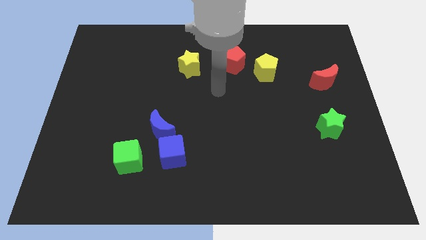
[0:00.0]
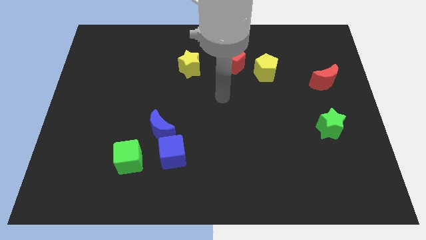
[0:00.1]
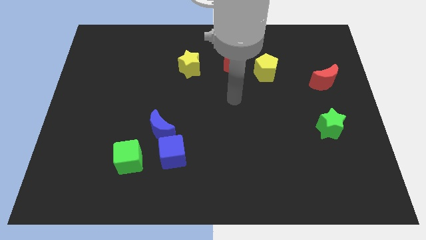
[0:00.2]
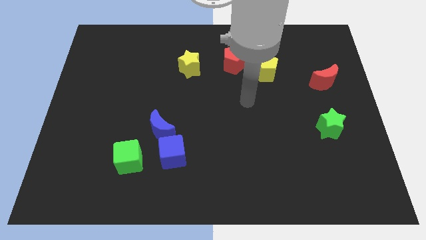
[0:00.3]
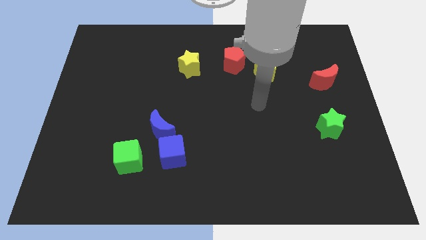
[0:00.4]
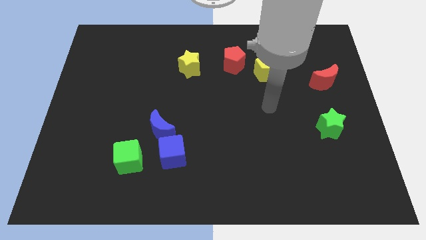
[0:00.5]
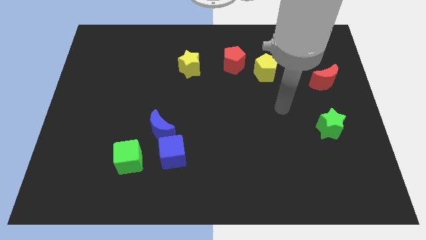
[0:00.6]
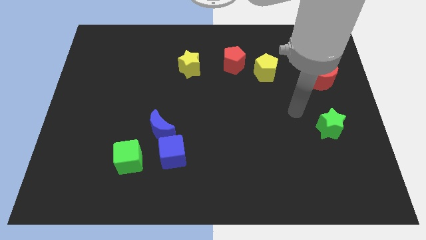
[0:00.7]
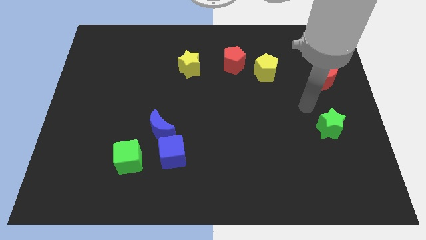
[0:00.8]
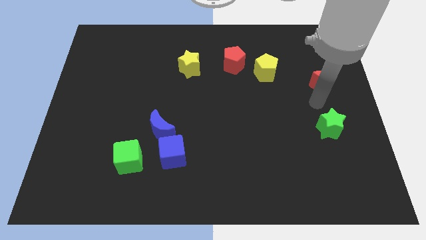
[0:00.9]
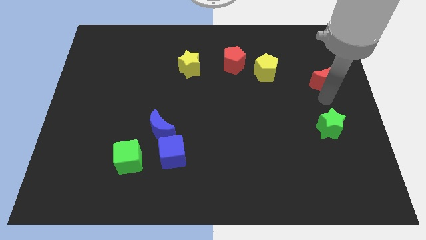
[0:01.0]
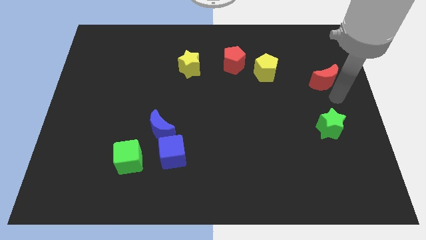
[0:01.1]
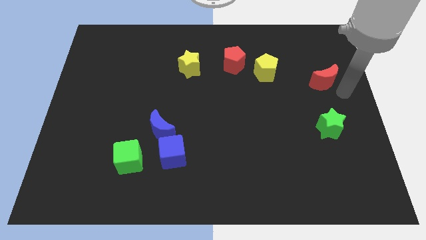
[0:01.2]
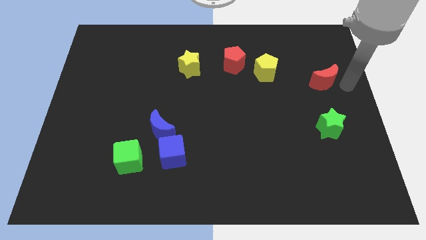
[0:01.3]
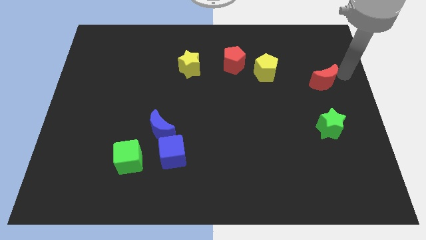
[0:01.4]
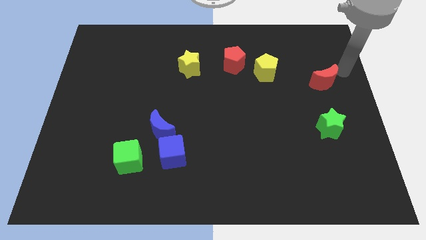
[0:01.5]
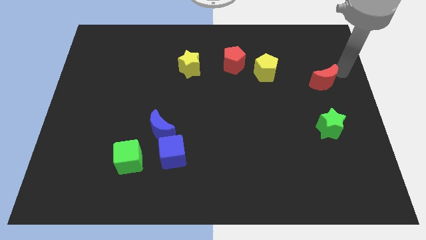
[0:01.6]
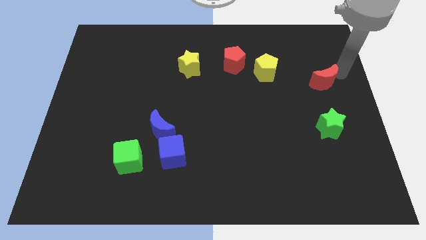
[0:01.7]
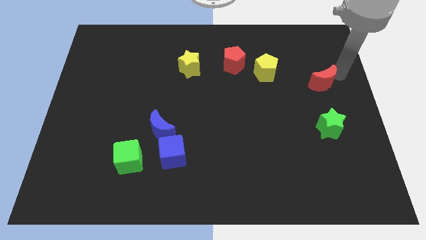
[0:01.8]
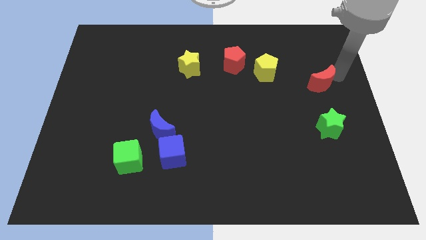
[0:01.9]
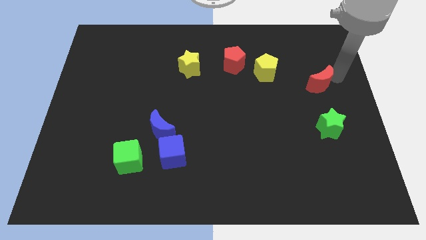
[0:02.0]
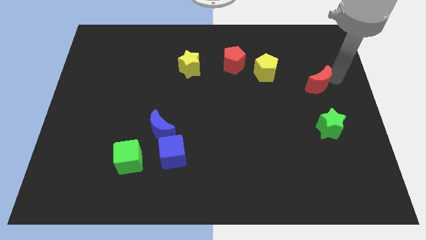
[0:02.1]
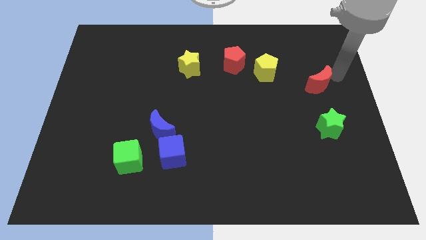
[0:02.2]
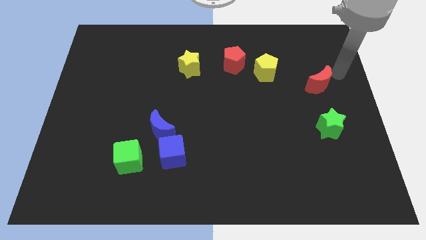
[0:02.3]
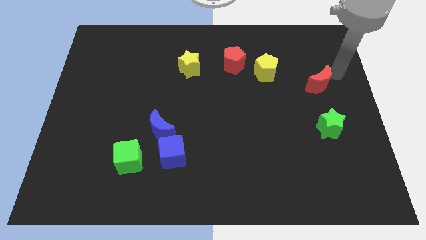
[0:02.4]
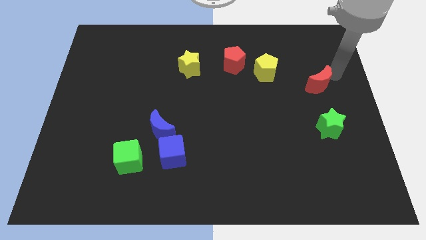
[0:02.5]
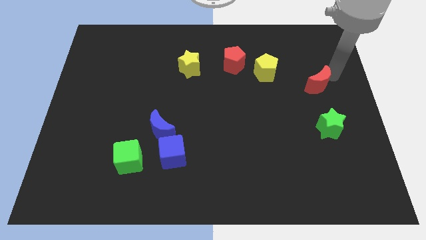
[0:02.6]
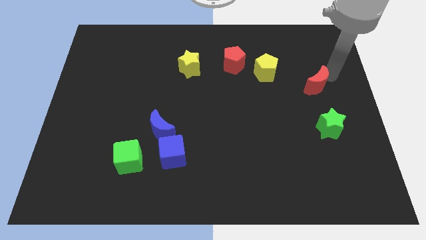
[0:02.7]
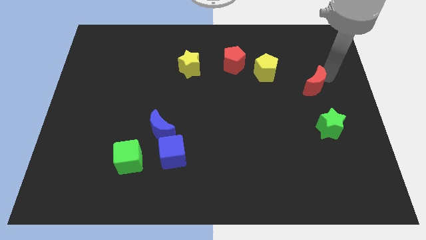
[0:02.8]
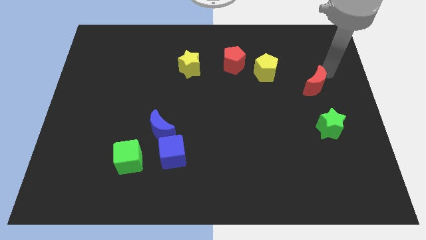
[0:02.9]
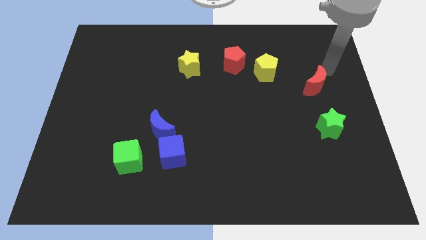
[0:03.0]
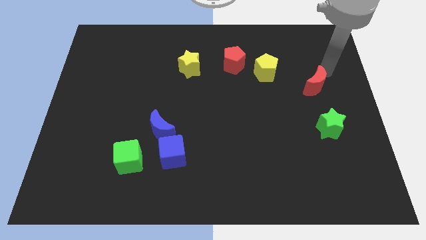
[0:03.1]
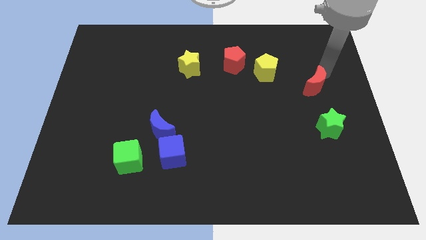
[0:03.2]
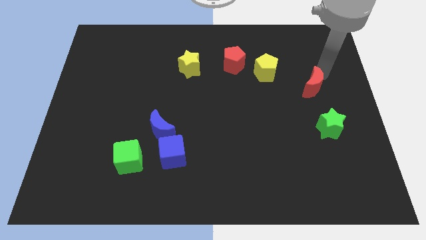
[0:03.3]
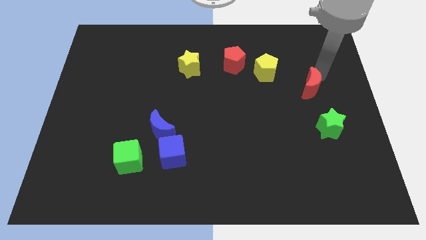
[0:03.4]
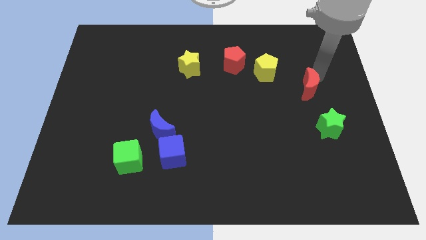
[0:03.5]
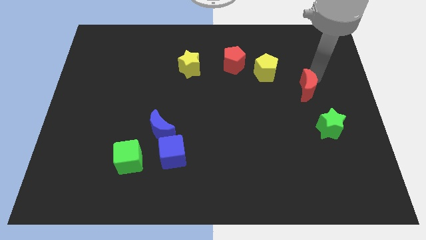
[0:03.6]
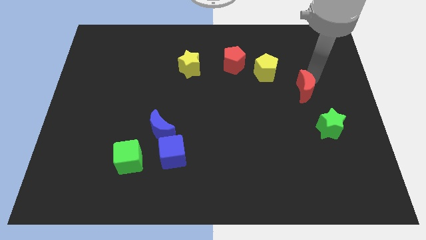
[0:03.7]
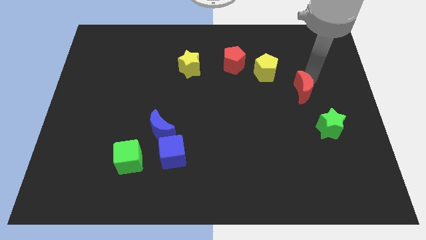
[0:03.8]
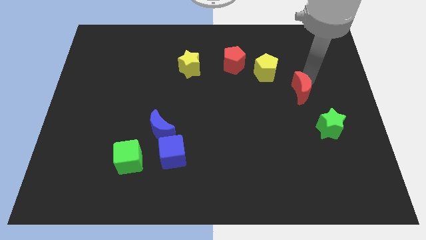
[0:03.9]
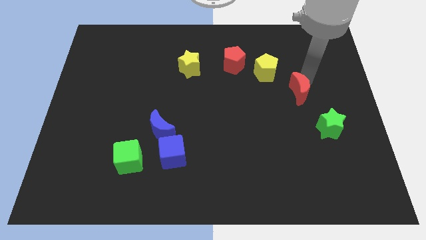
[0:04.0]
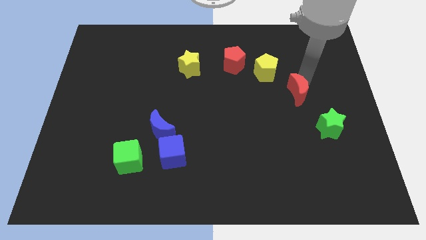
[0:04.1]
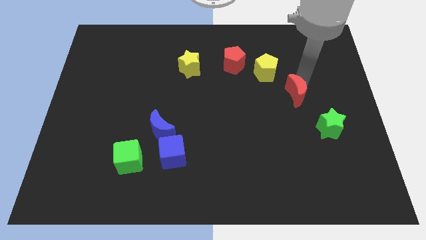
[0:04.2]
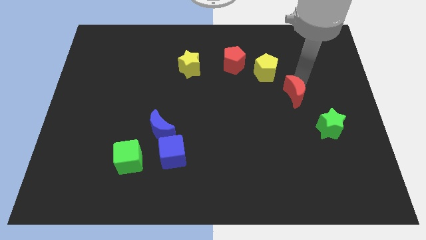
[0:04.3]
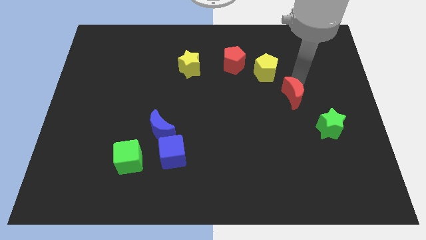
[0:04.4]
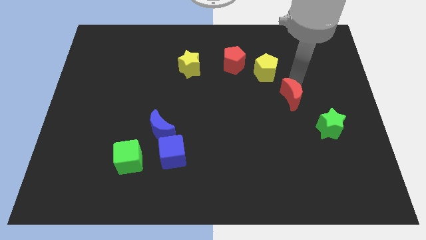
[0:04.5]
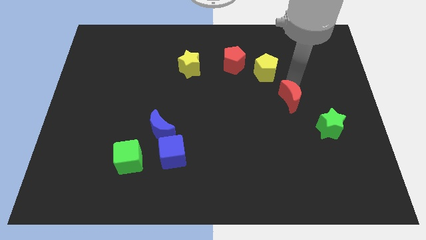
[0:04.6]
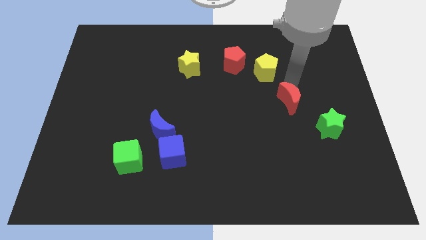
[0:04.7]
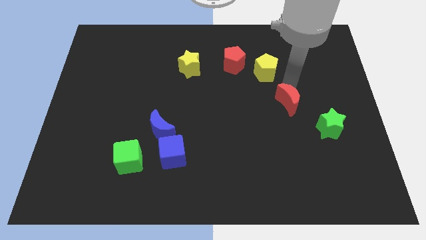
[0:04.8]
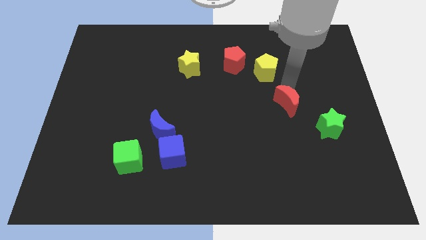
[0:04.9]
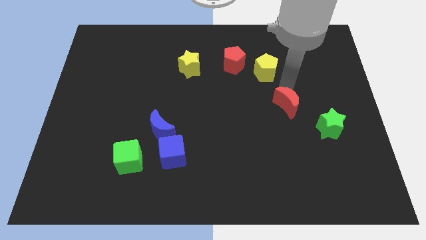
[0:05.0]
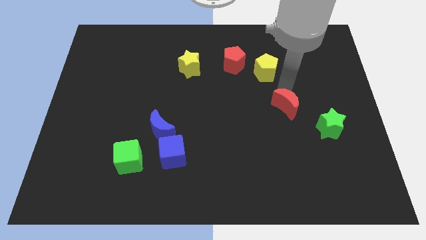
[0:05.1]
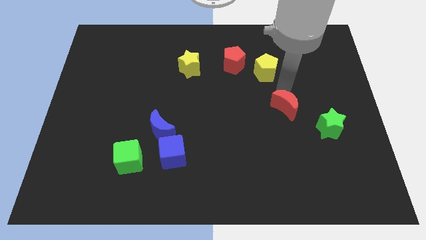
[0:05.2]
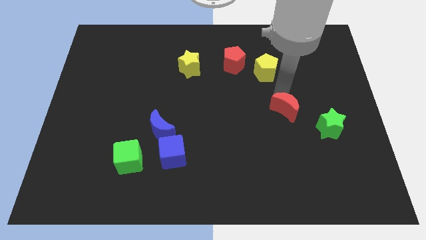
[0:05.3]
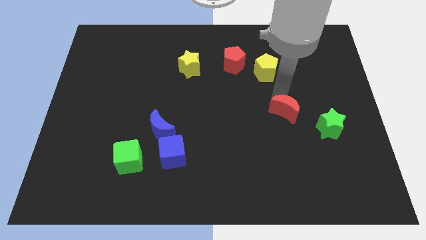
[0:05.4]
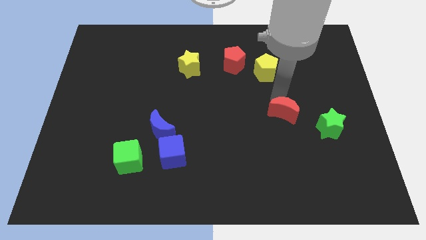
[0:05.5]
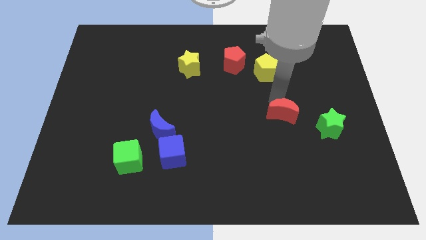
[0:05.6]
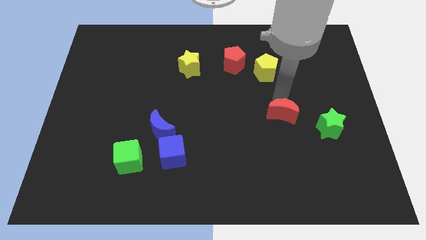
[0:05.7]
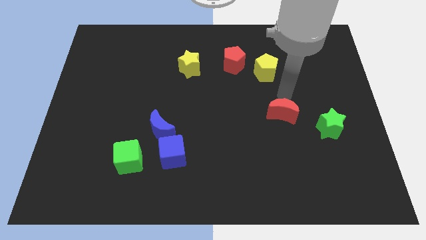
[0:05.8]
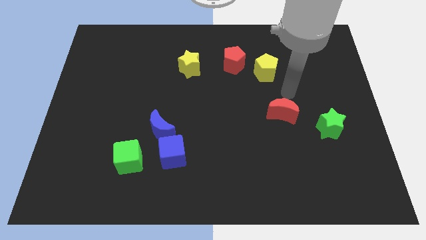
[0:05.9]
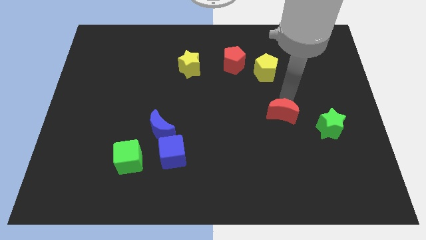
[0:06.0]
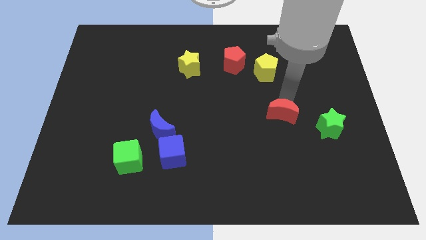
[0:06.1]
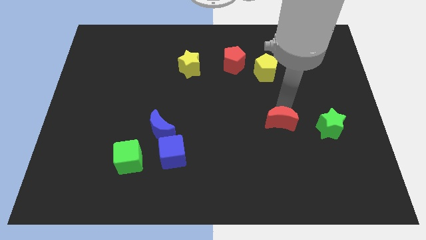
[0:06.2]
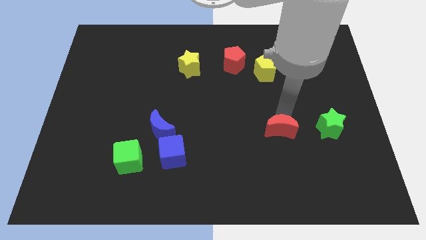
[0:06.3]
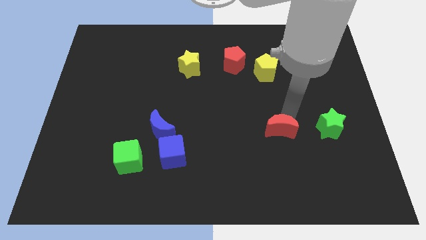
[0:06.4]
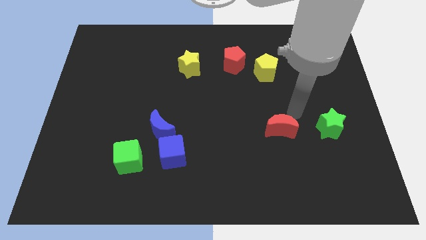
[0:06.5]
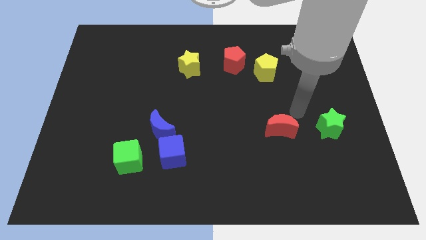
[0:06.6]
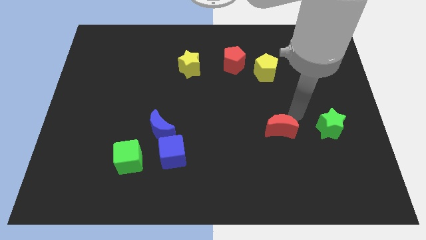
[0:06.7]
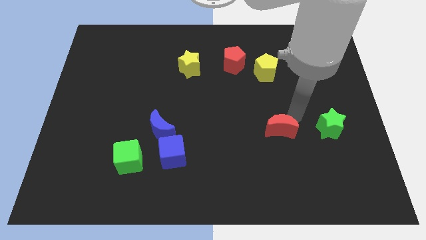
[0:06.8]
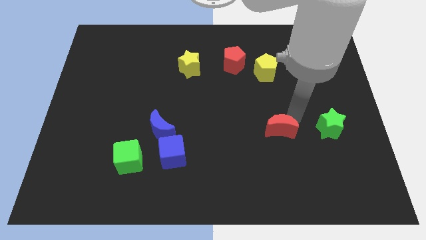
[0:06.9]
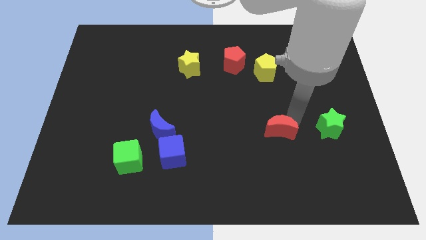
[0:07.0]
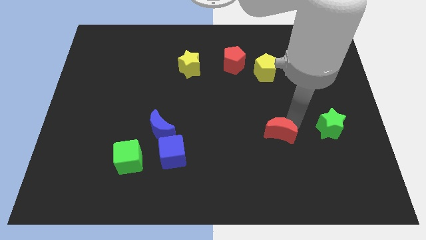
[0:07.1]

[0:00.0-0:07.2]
move the red moon diagonally down and left

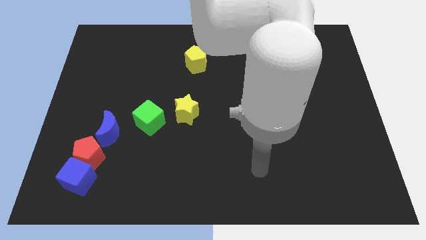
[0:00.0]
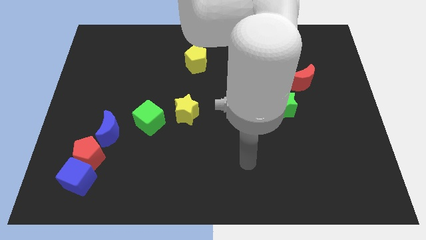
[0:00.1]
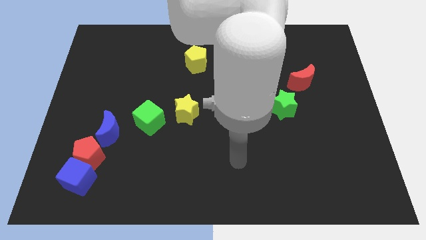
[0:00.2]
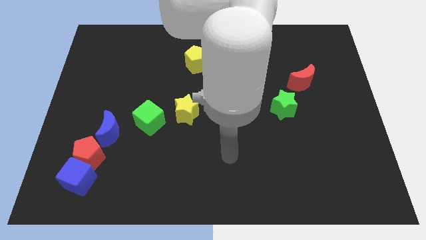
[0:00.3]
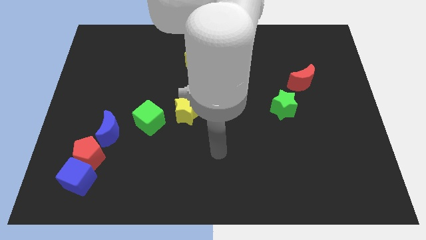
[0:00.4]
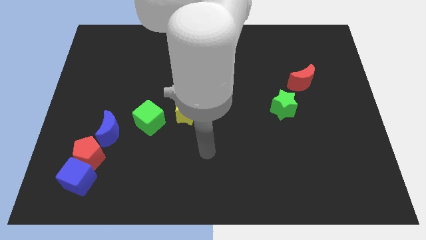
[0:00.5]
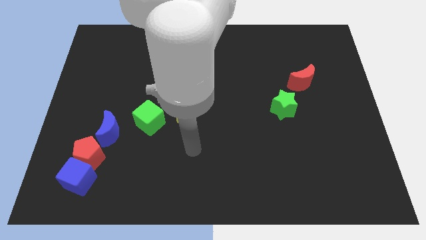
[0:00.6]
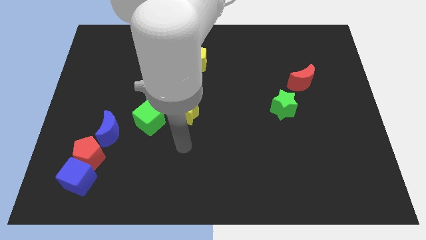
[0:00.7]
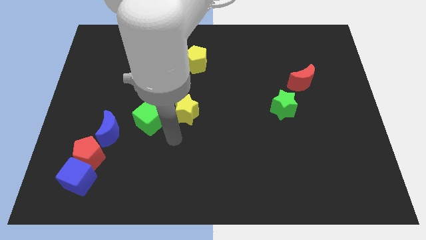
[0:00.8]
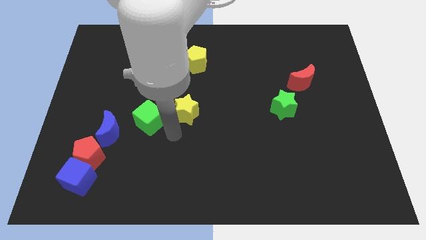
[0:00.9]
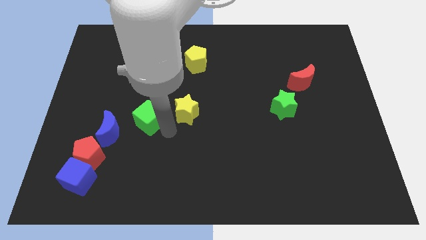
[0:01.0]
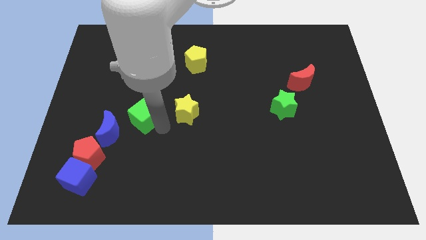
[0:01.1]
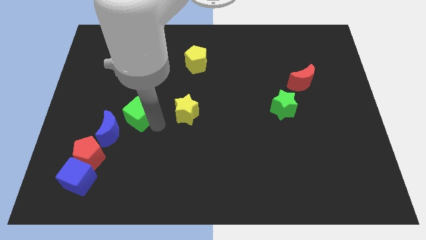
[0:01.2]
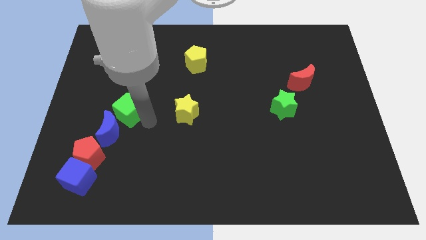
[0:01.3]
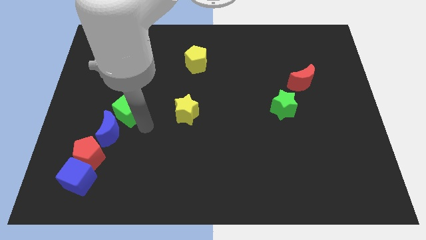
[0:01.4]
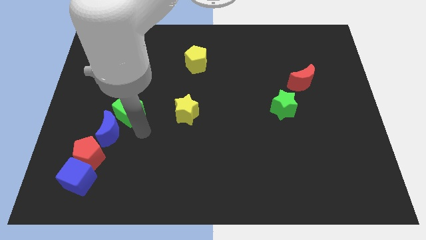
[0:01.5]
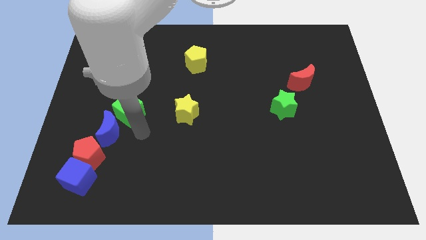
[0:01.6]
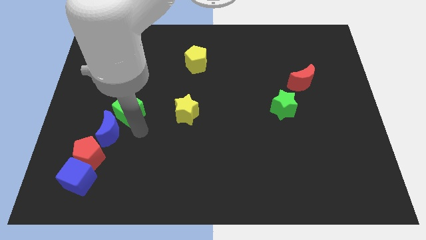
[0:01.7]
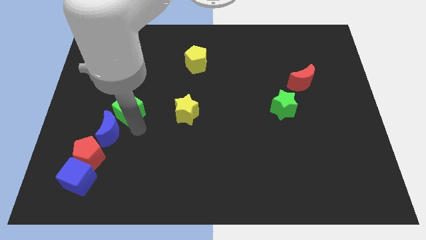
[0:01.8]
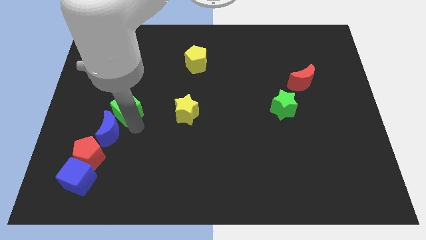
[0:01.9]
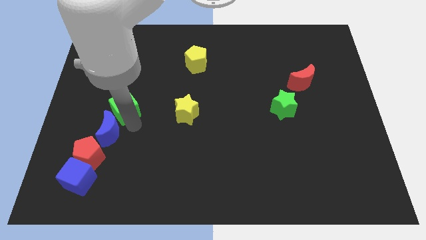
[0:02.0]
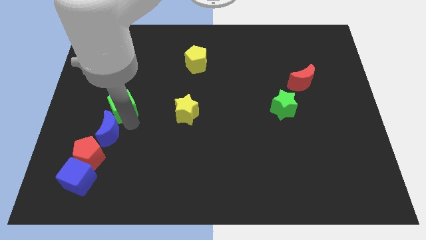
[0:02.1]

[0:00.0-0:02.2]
slide the green cube a little upwards and left diagonally
